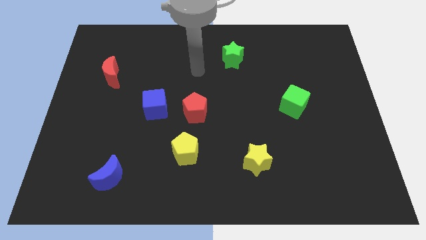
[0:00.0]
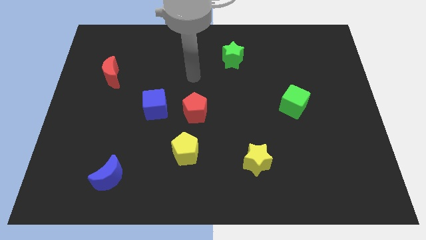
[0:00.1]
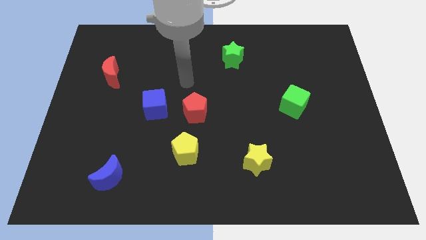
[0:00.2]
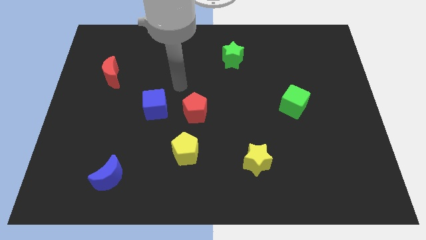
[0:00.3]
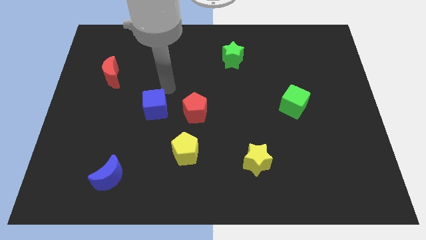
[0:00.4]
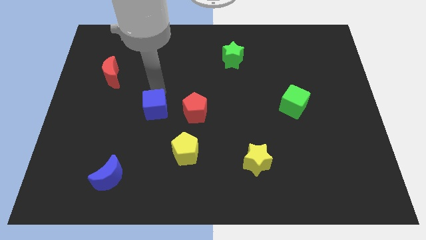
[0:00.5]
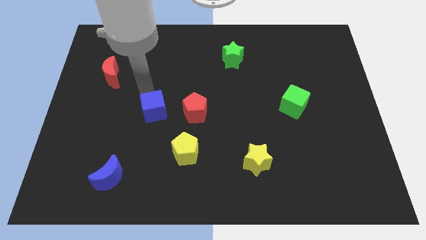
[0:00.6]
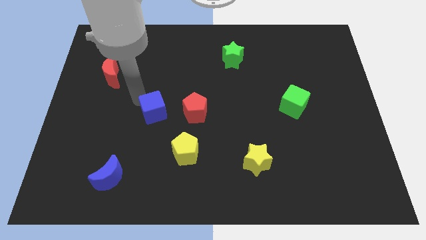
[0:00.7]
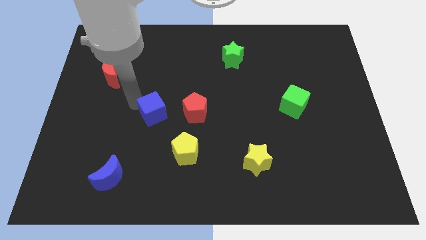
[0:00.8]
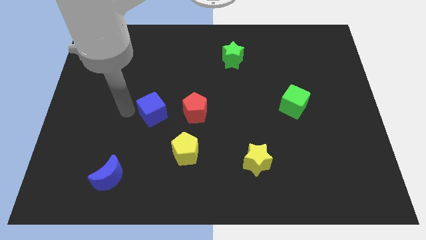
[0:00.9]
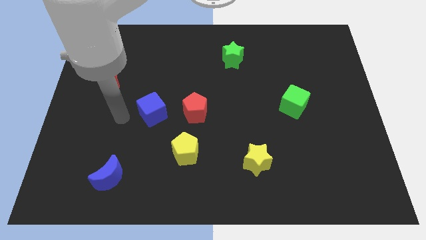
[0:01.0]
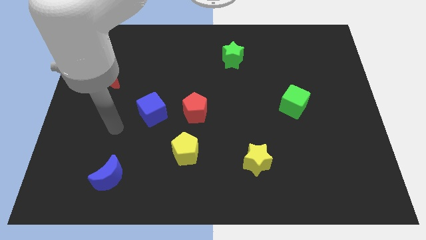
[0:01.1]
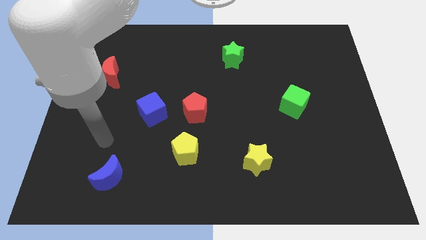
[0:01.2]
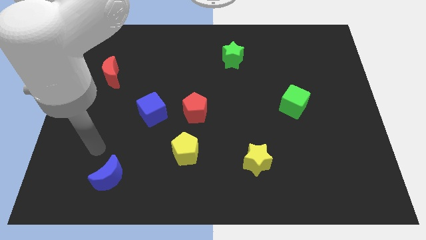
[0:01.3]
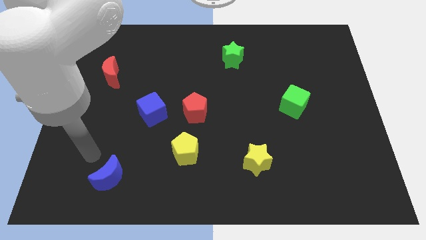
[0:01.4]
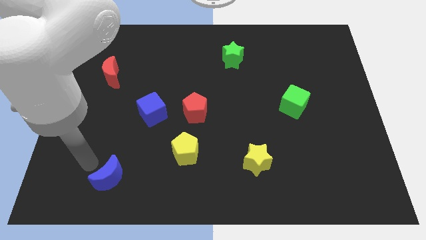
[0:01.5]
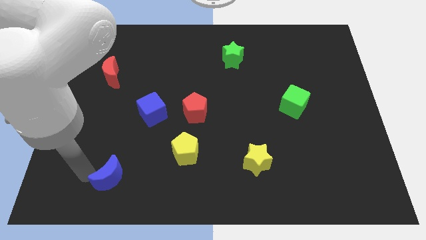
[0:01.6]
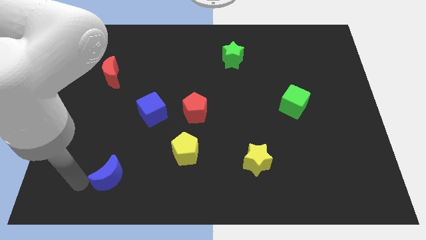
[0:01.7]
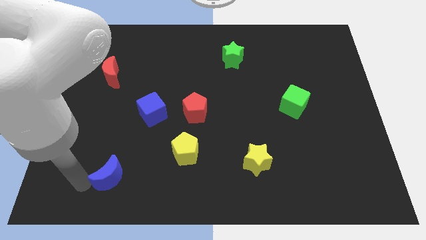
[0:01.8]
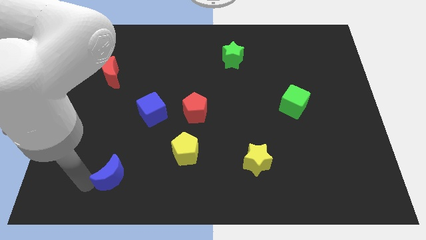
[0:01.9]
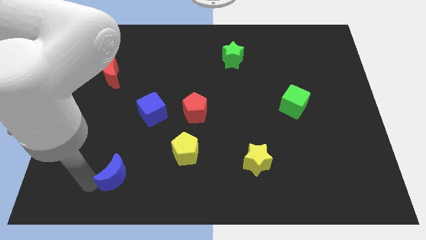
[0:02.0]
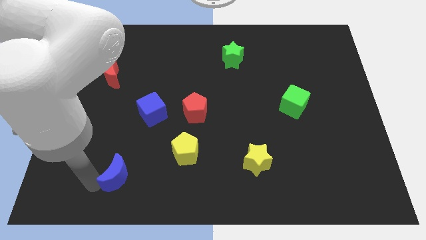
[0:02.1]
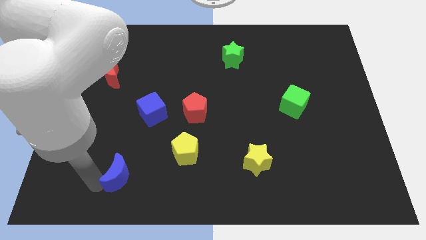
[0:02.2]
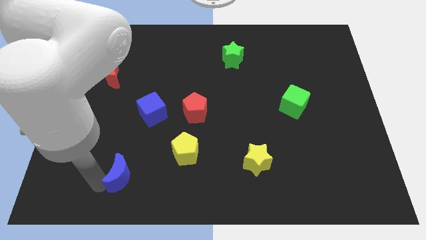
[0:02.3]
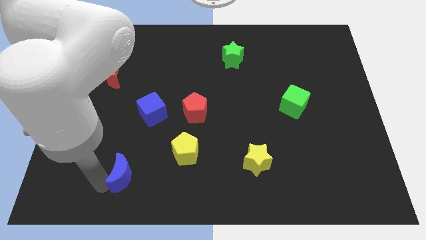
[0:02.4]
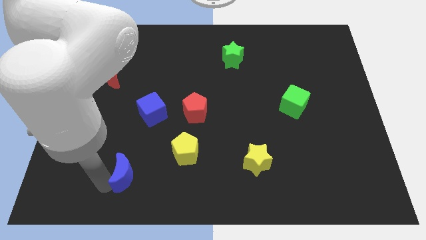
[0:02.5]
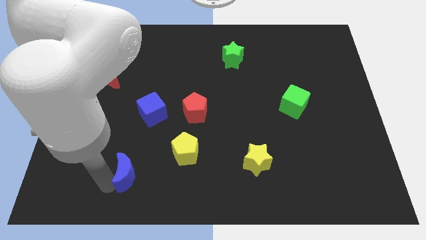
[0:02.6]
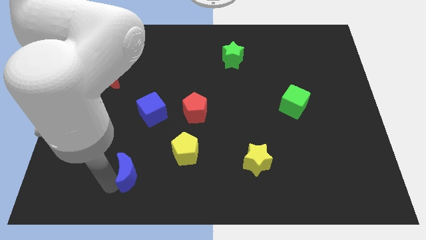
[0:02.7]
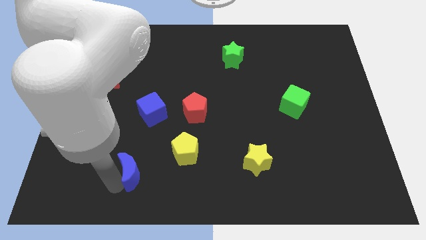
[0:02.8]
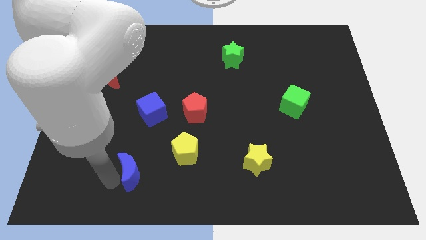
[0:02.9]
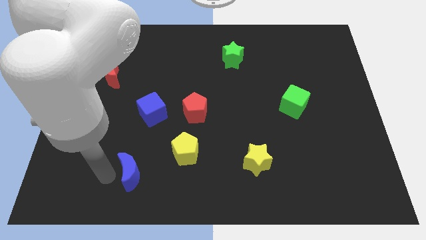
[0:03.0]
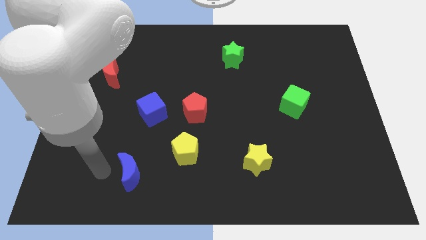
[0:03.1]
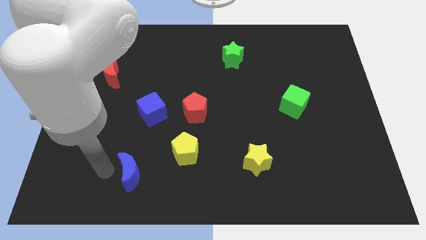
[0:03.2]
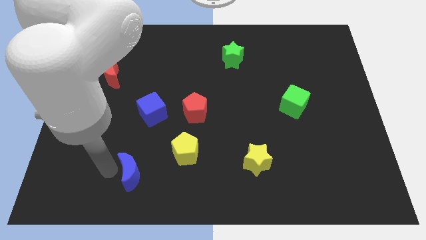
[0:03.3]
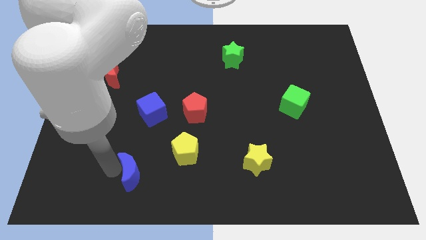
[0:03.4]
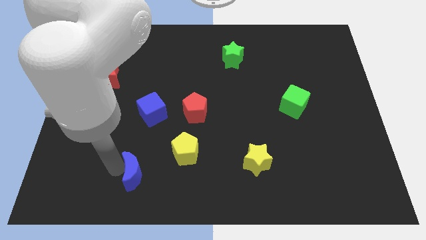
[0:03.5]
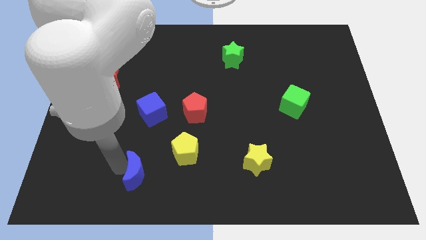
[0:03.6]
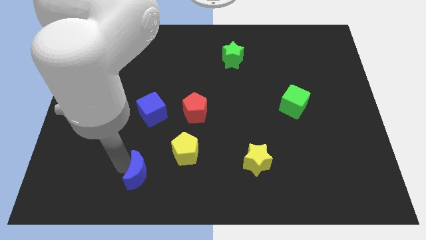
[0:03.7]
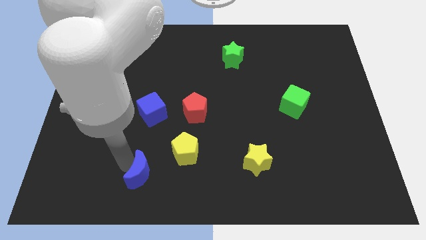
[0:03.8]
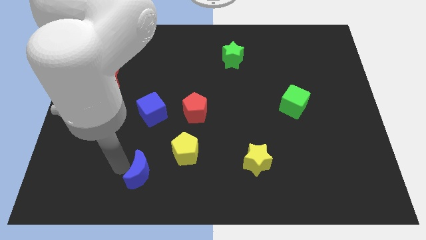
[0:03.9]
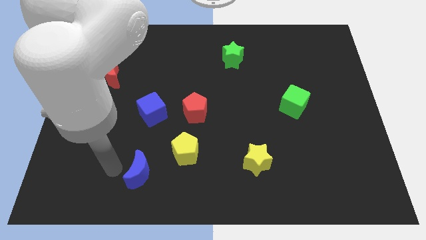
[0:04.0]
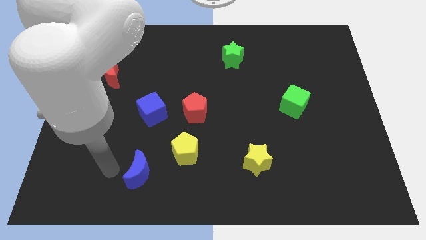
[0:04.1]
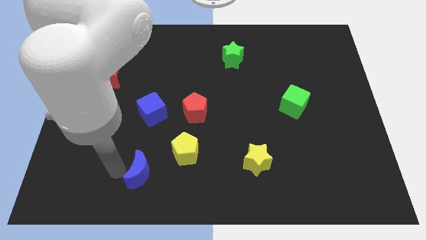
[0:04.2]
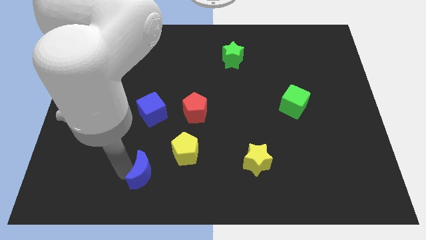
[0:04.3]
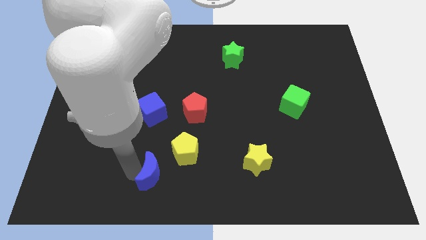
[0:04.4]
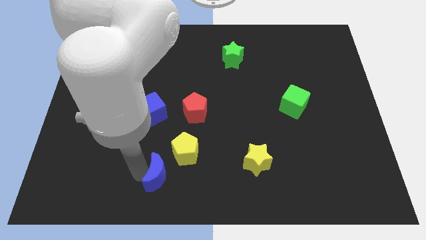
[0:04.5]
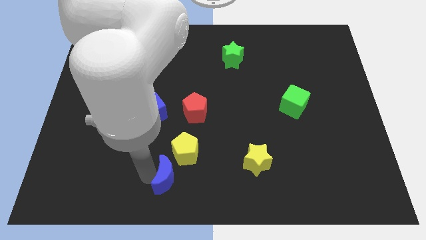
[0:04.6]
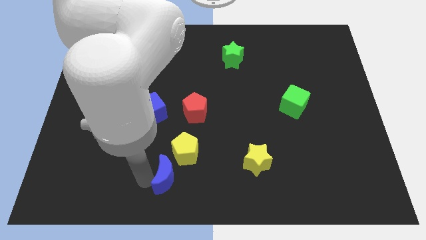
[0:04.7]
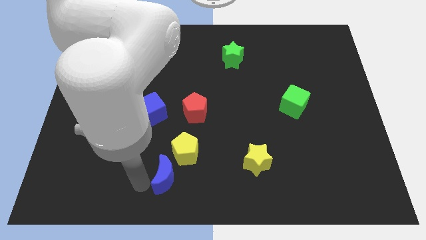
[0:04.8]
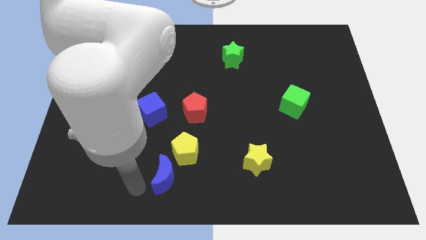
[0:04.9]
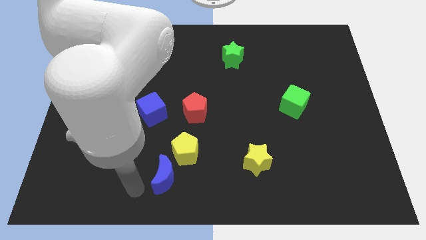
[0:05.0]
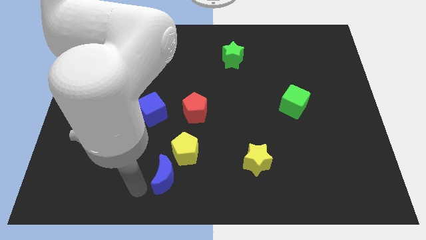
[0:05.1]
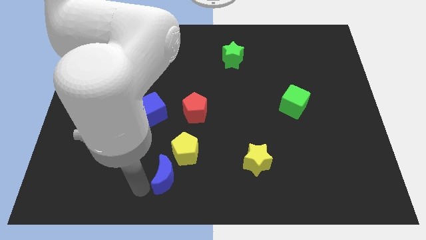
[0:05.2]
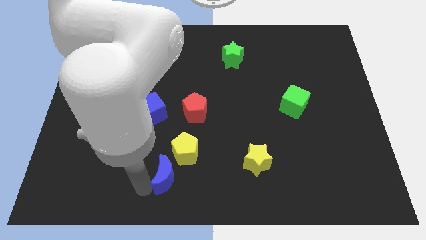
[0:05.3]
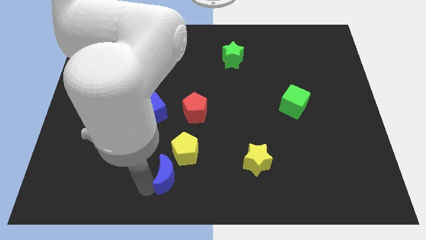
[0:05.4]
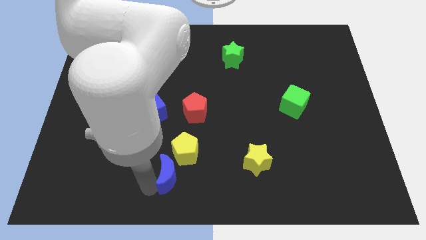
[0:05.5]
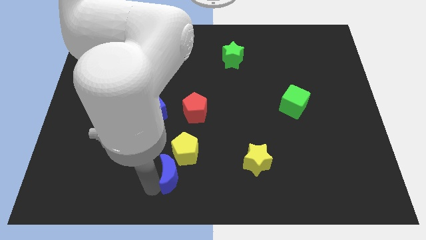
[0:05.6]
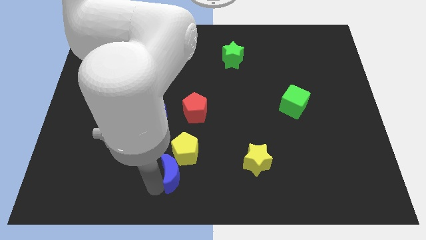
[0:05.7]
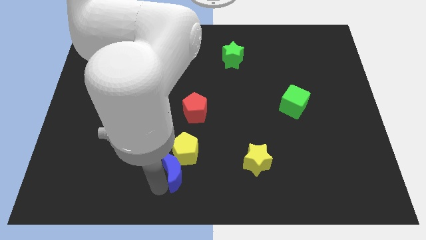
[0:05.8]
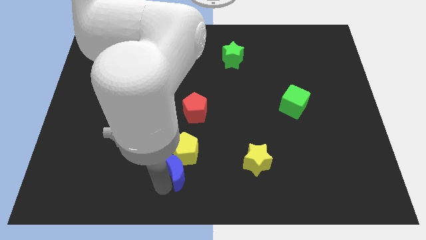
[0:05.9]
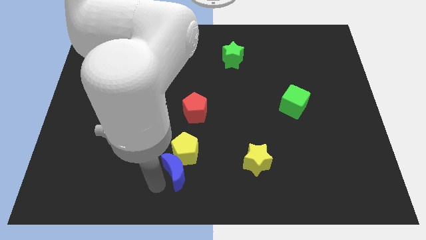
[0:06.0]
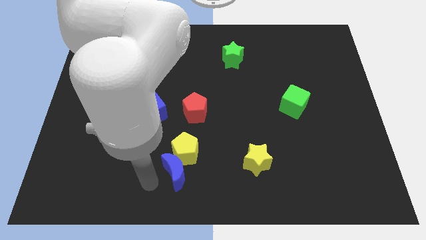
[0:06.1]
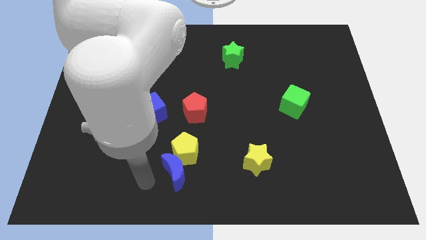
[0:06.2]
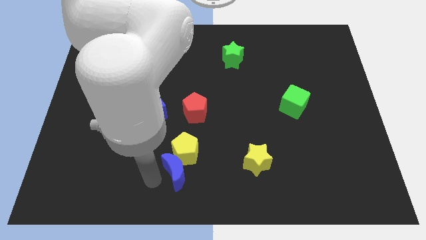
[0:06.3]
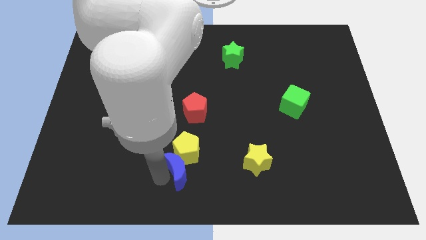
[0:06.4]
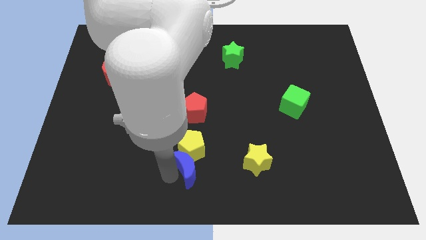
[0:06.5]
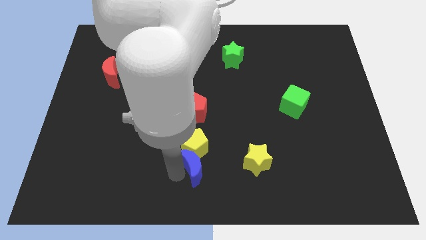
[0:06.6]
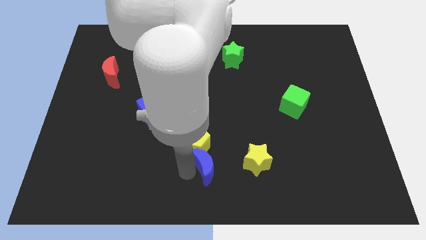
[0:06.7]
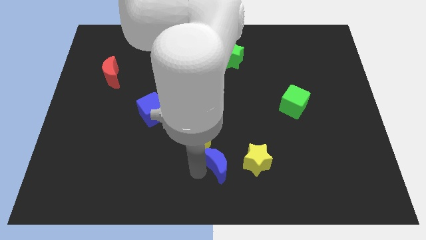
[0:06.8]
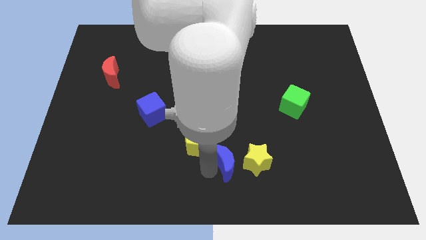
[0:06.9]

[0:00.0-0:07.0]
put the blue moon to the right of the yellow pentagon

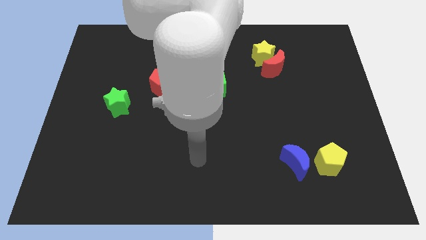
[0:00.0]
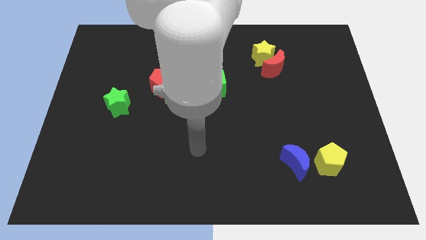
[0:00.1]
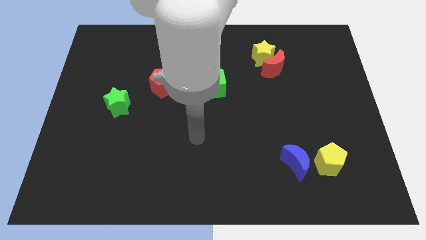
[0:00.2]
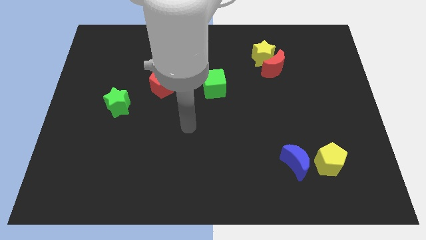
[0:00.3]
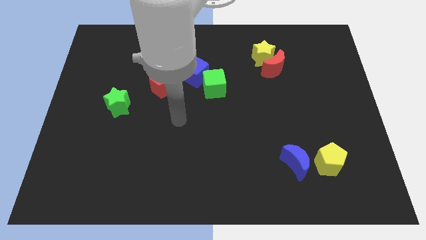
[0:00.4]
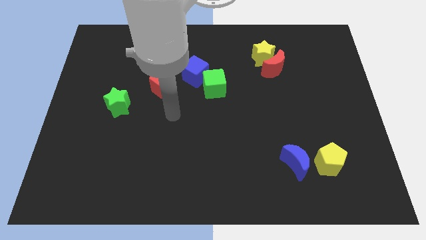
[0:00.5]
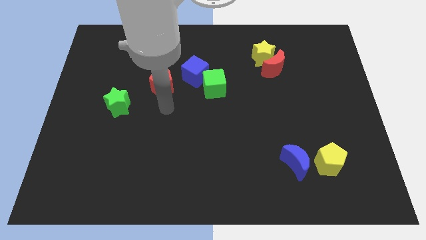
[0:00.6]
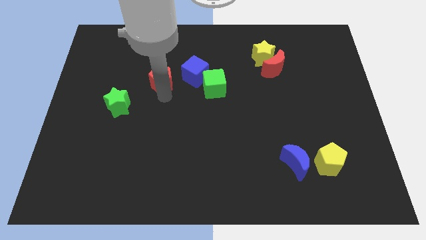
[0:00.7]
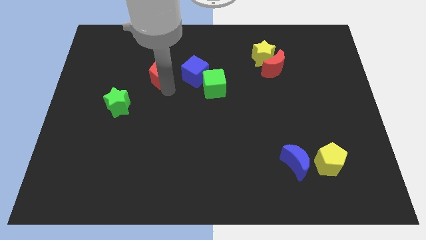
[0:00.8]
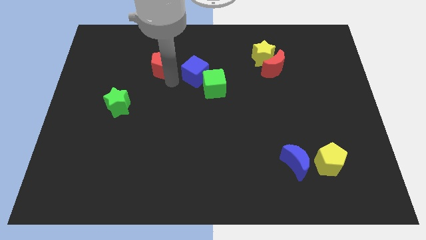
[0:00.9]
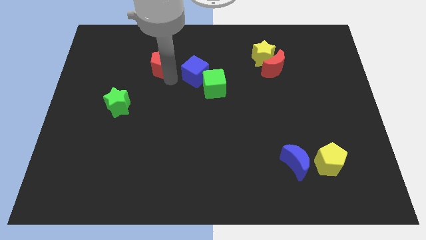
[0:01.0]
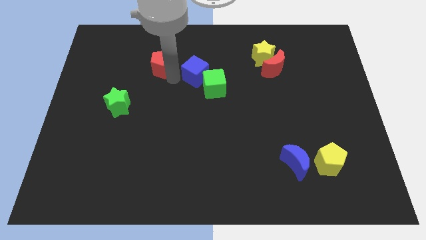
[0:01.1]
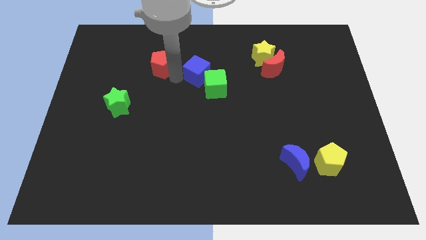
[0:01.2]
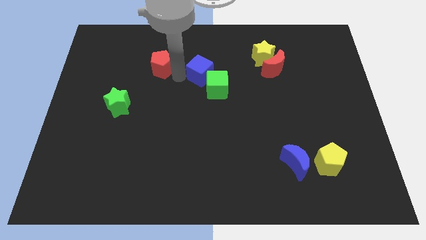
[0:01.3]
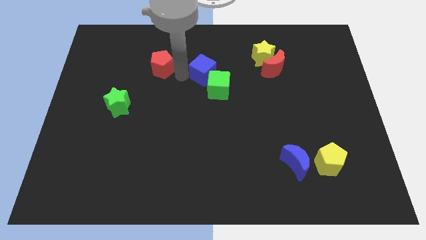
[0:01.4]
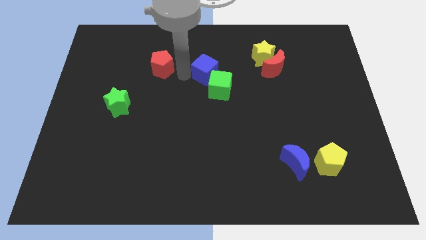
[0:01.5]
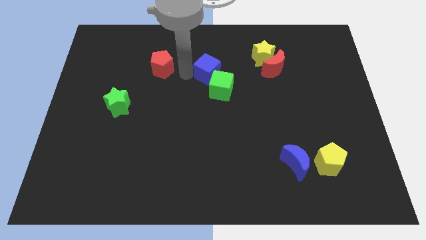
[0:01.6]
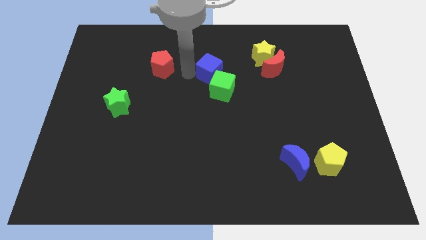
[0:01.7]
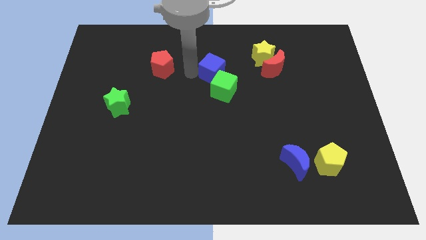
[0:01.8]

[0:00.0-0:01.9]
slide the blue cube to the left of the red moon
